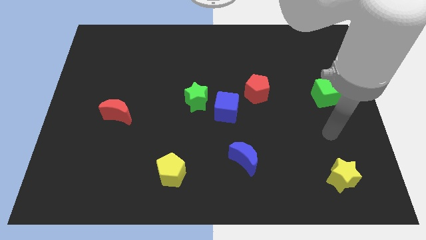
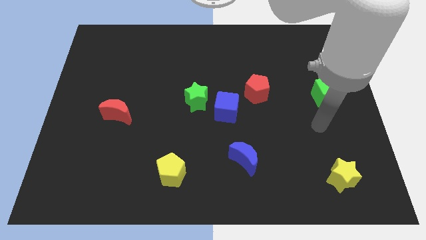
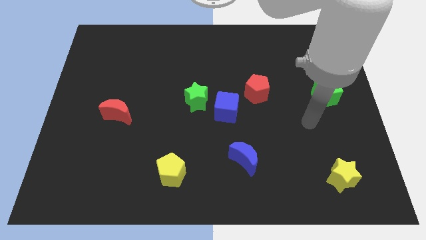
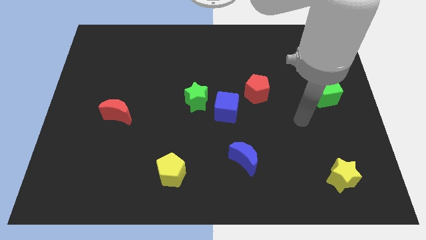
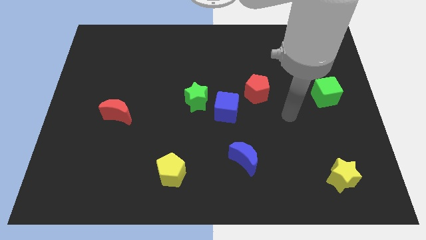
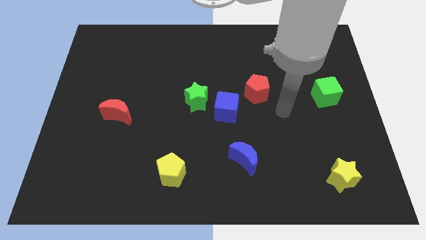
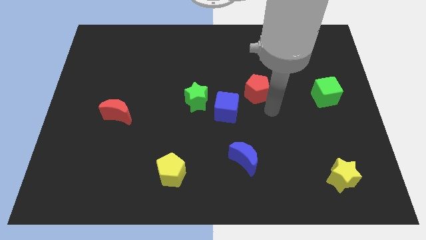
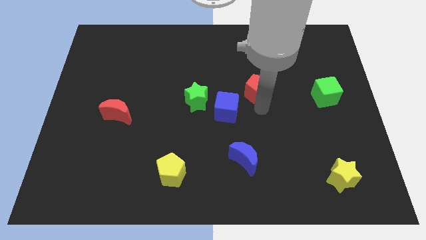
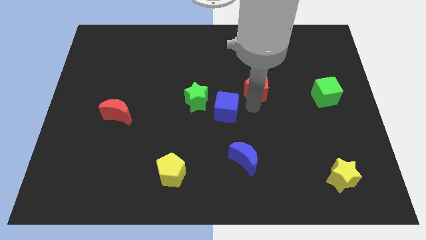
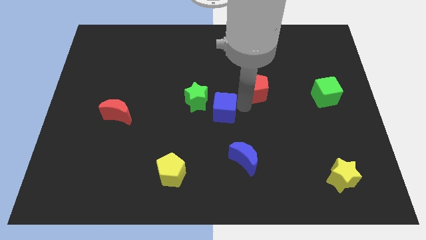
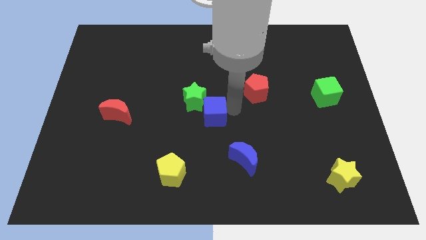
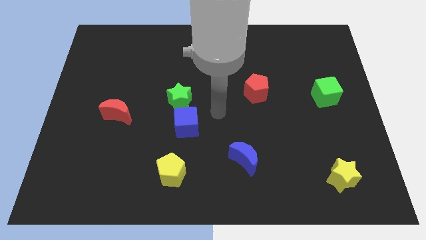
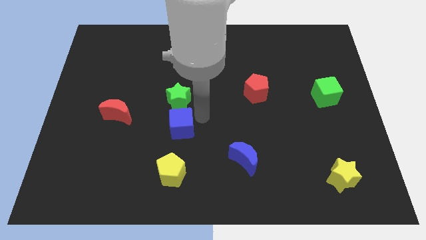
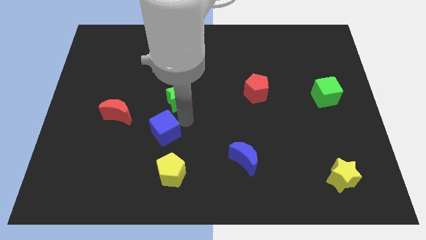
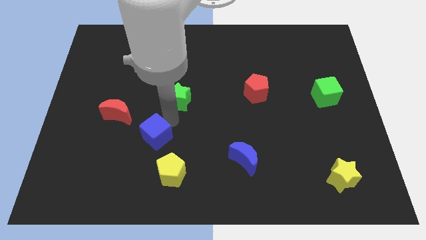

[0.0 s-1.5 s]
move the green star away from the blue cube

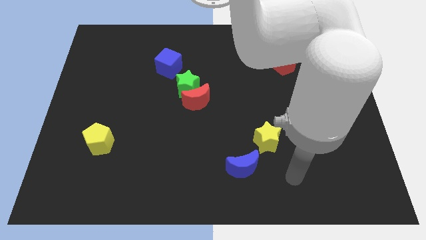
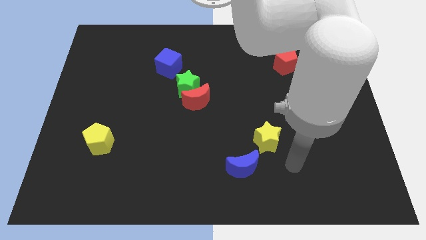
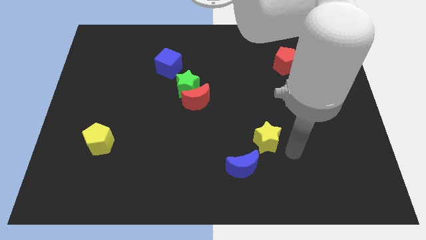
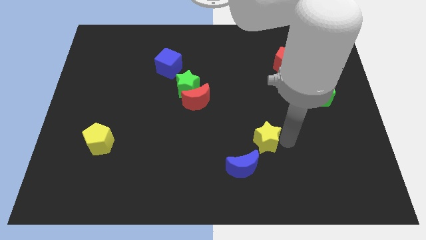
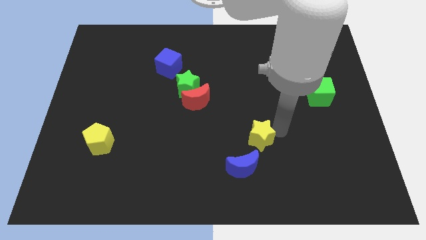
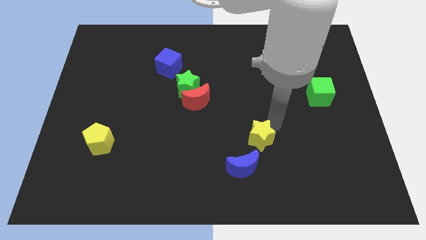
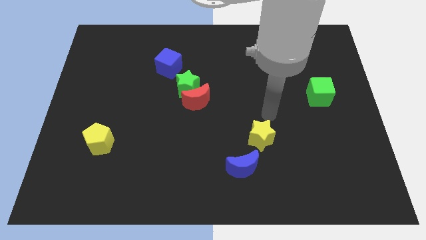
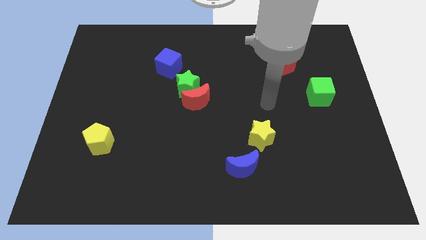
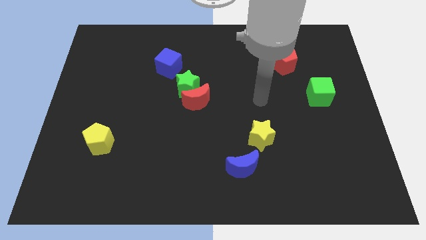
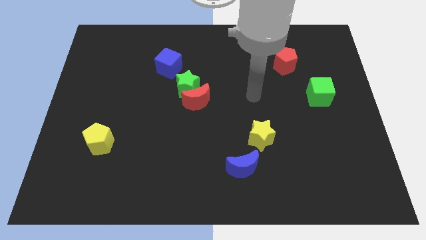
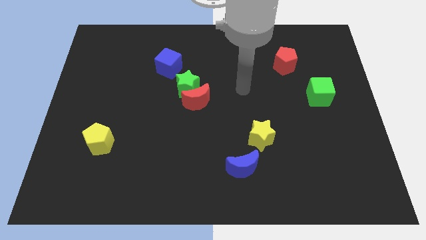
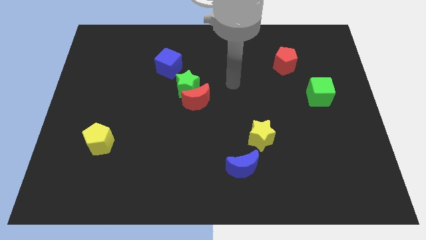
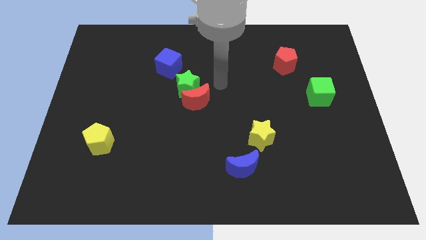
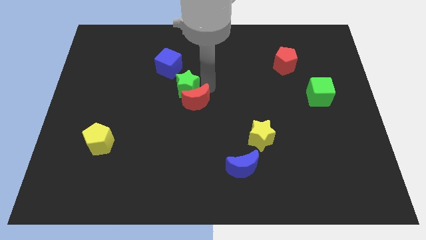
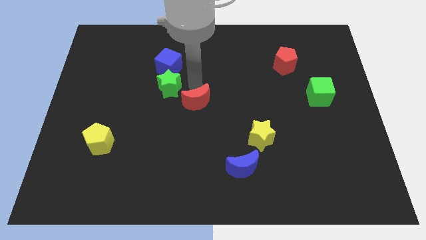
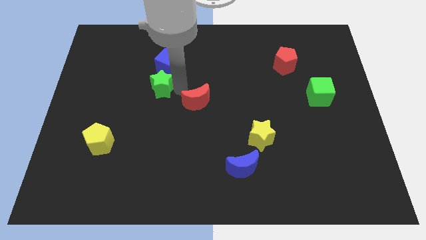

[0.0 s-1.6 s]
move the red moon away from the green star

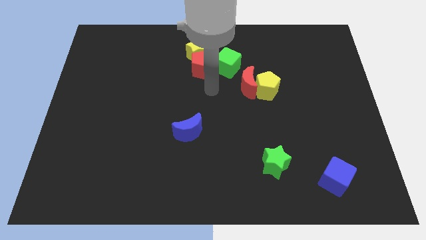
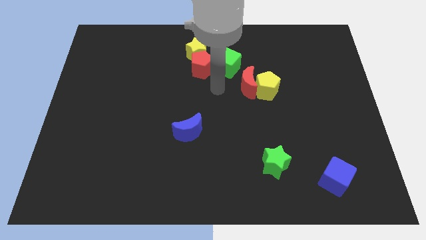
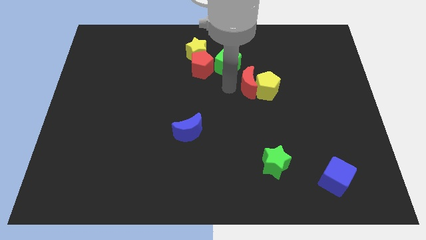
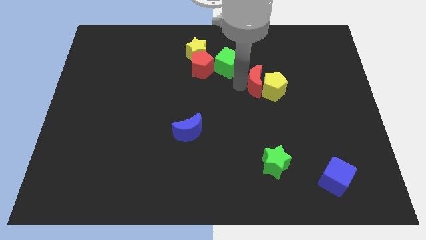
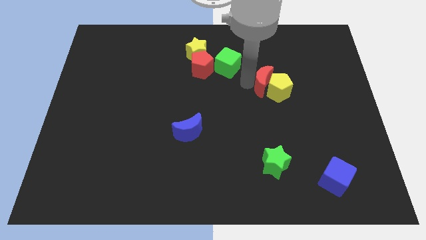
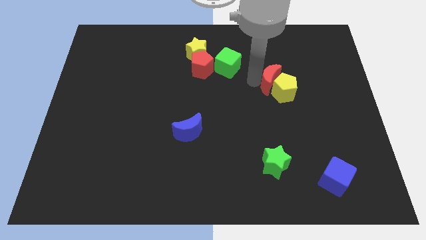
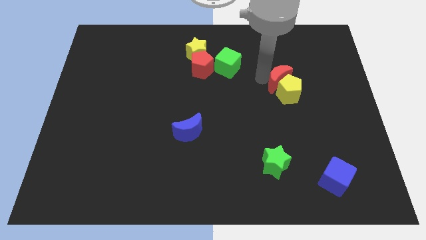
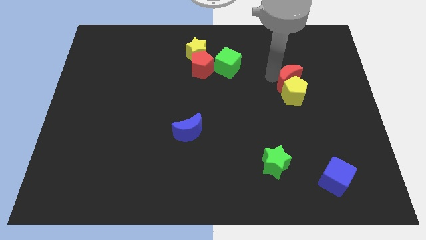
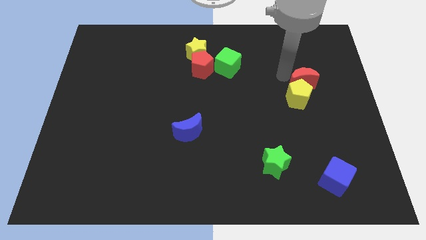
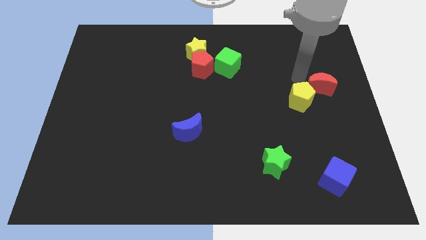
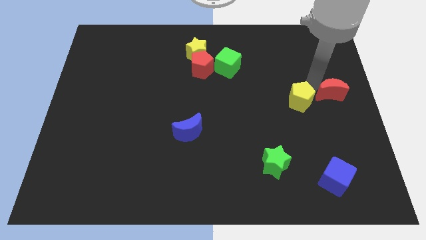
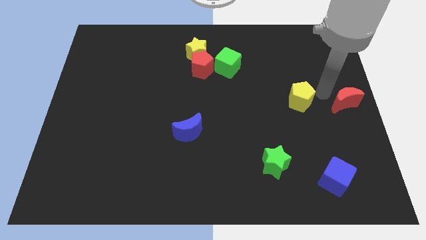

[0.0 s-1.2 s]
pull the yellow pentagon apart from the red moon

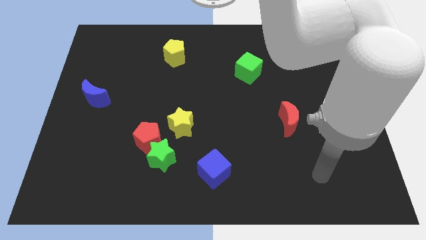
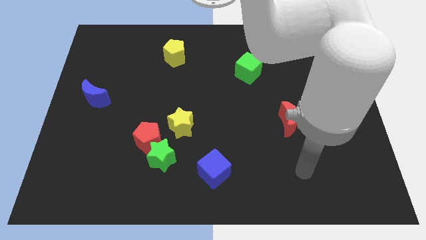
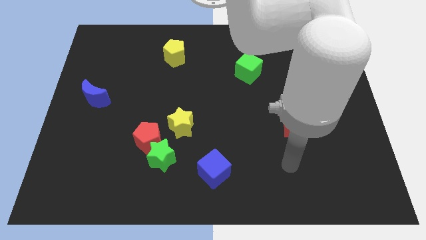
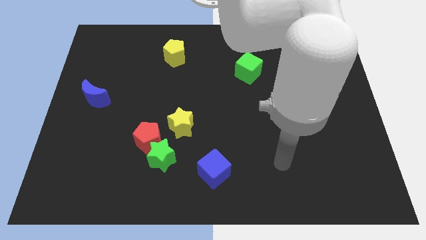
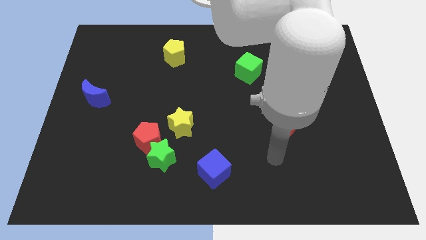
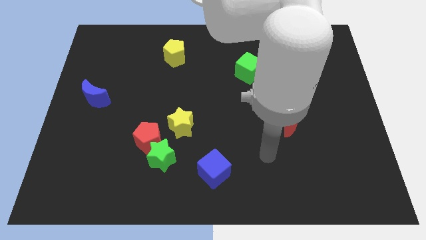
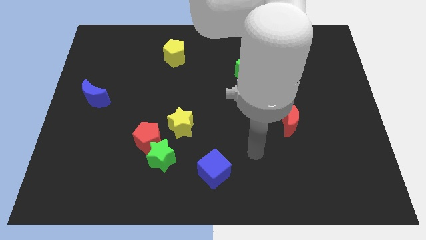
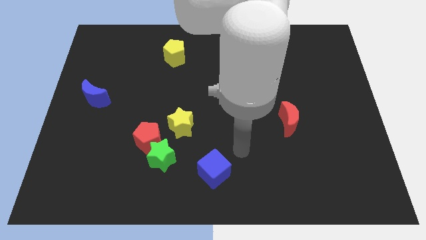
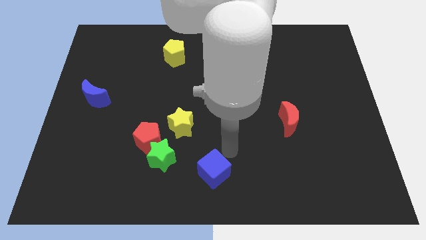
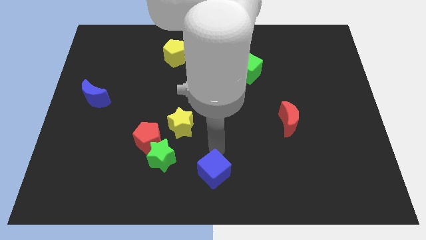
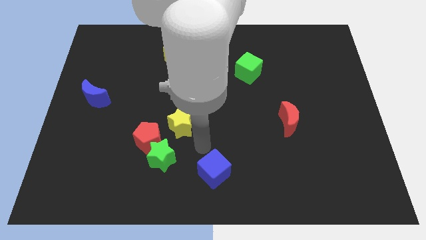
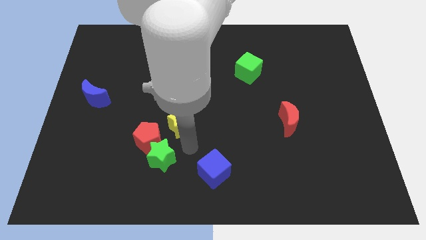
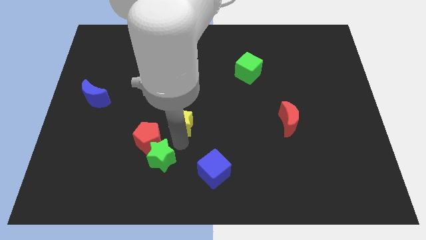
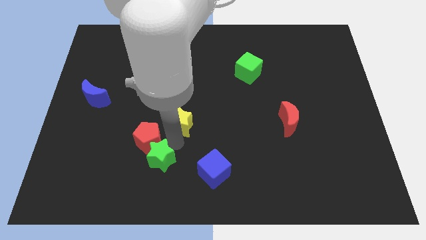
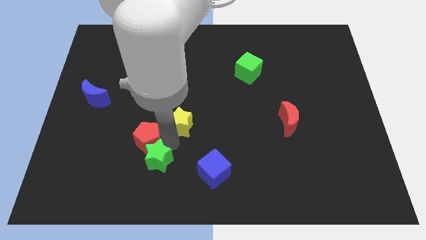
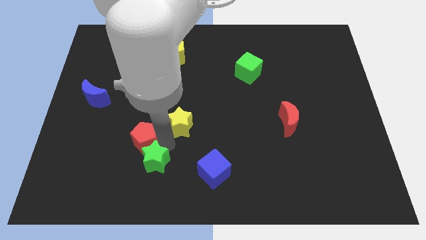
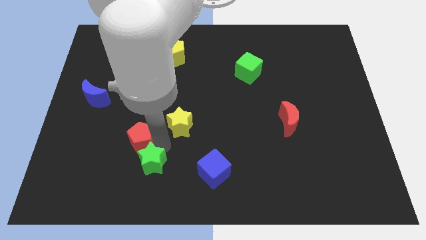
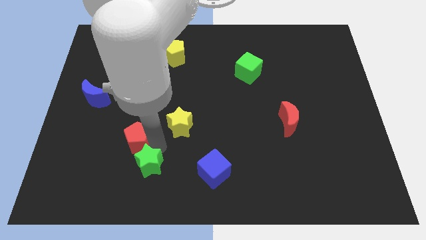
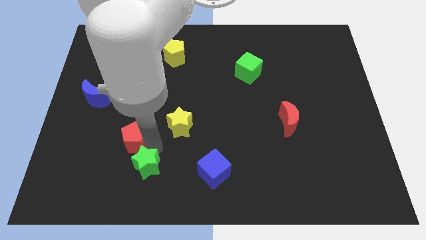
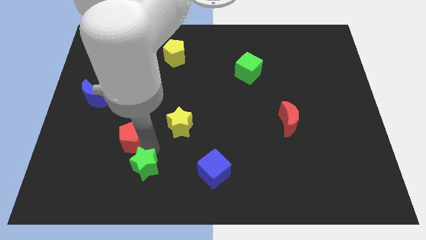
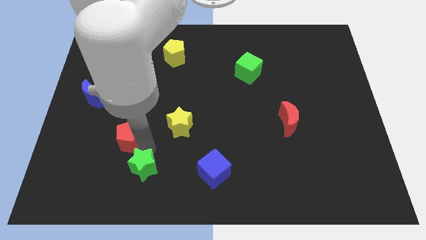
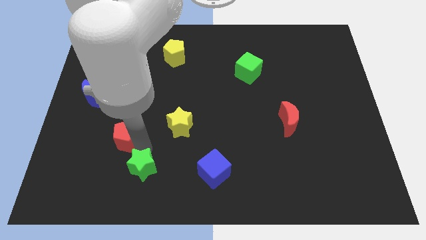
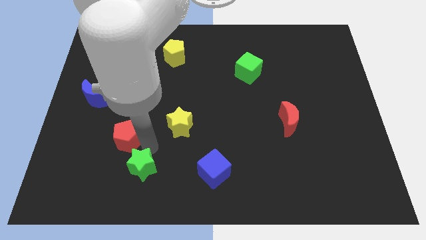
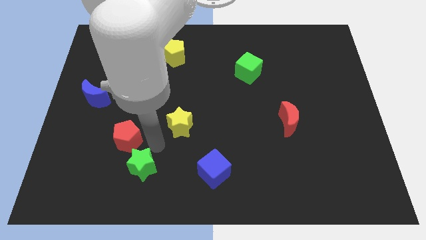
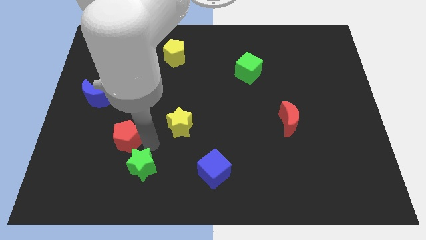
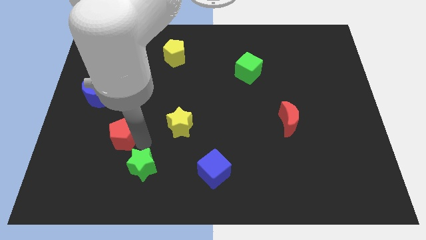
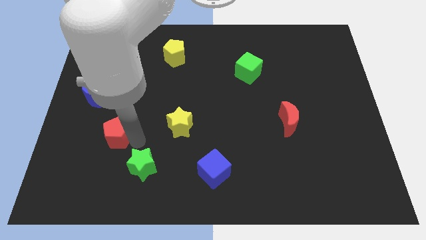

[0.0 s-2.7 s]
pull the red pentagon apart from the green star and yellow star

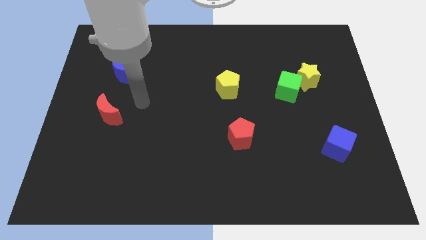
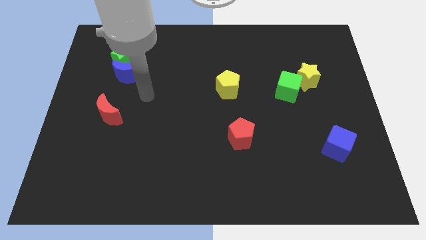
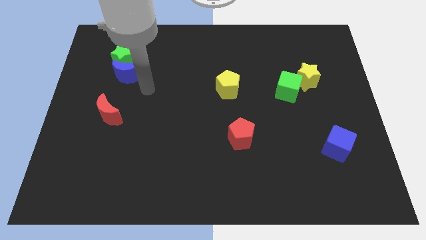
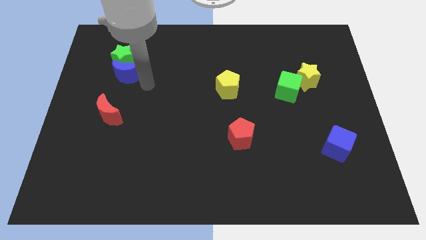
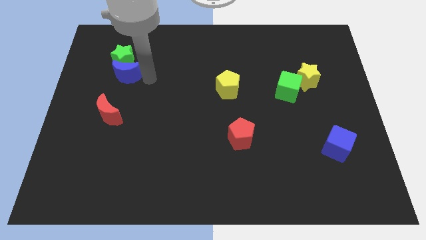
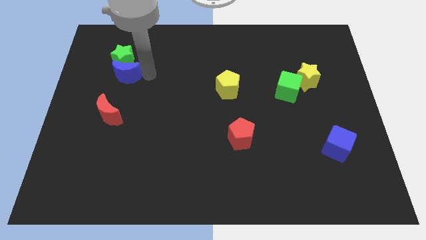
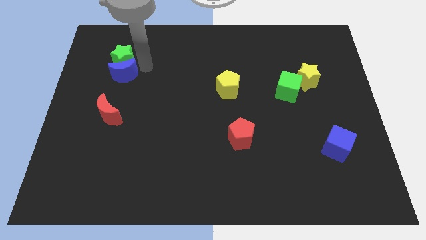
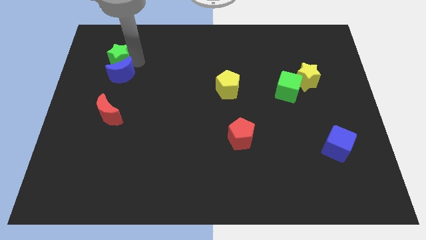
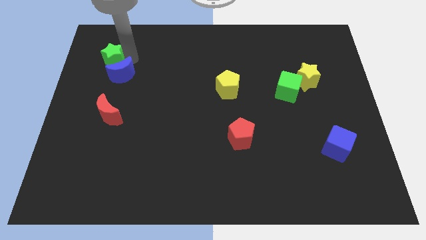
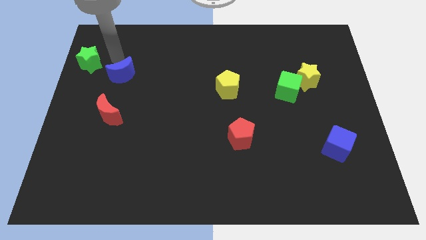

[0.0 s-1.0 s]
separate the blue moon from the green star

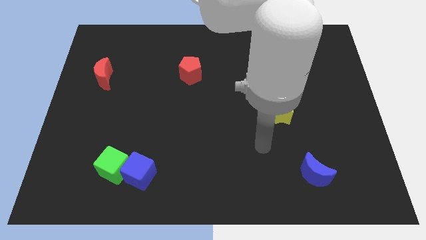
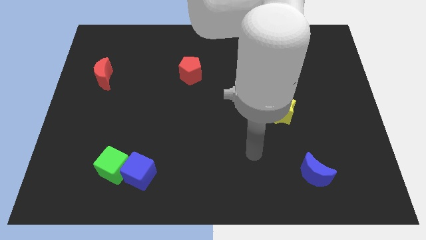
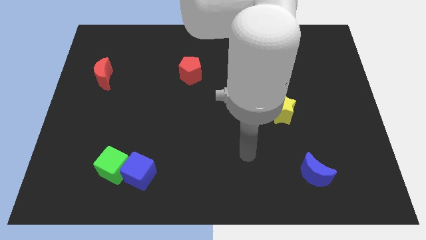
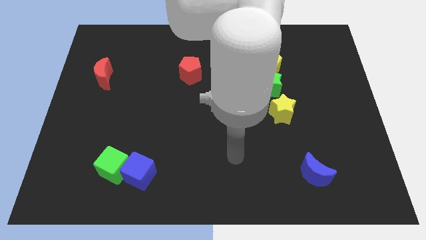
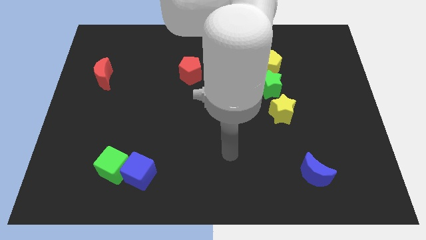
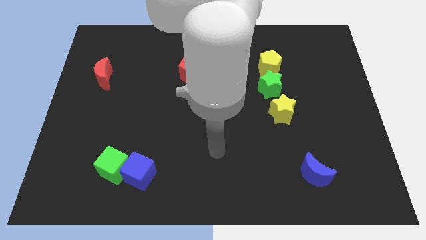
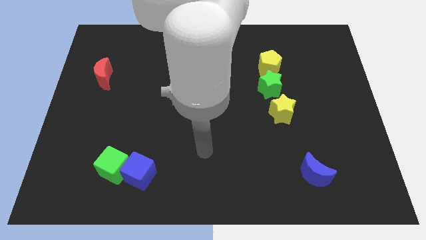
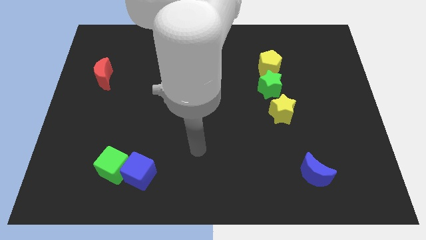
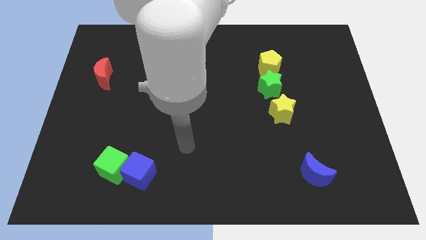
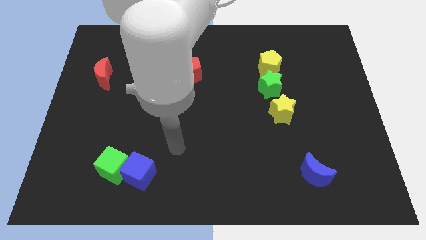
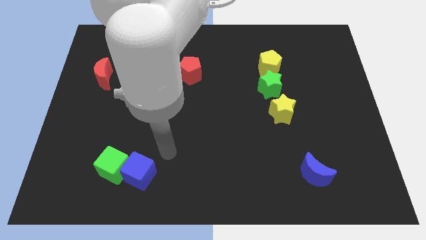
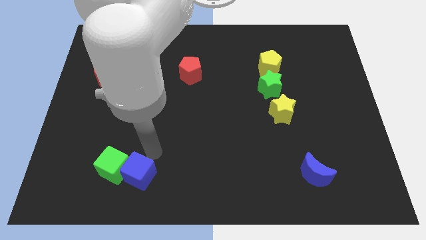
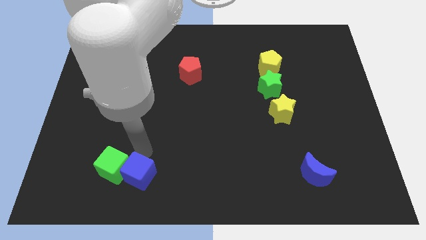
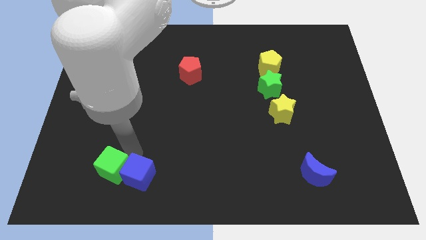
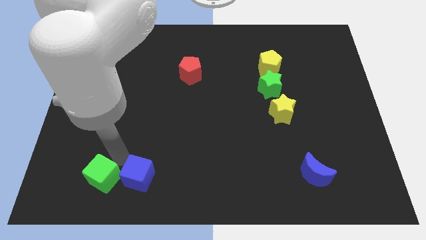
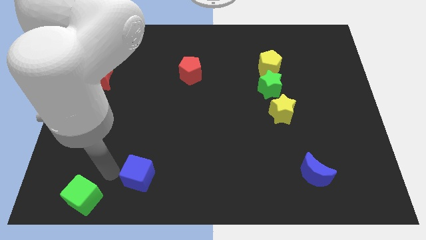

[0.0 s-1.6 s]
pull the blue cube apart from the green cube
